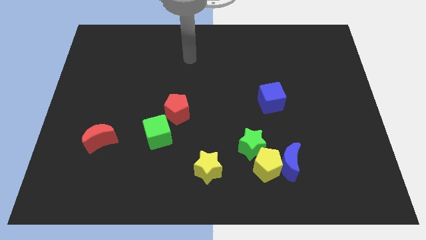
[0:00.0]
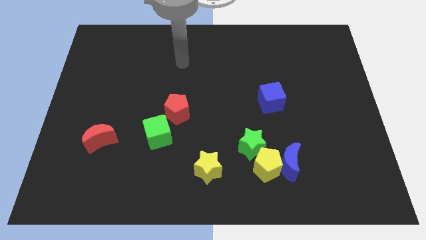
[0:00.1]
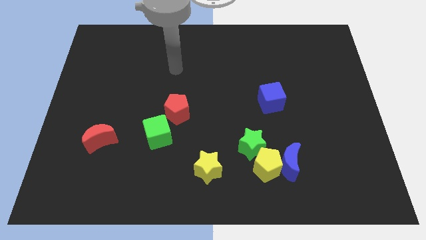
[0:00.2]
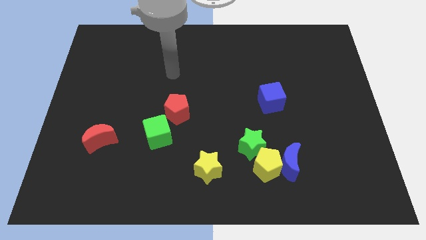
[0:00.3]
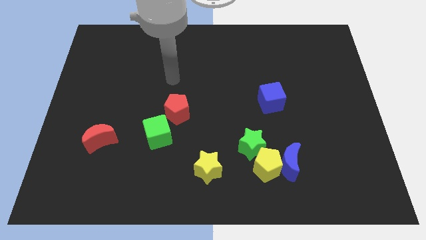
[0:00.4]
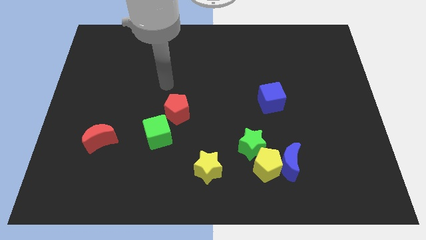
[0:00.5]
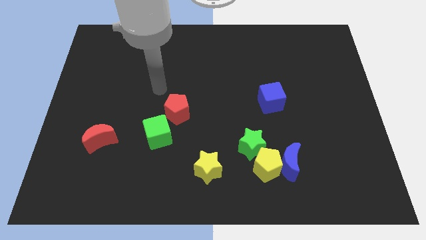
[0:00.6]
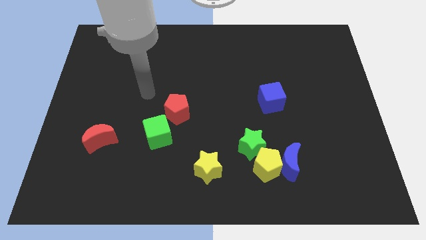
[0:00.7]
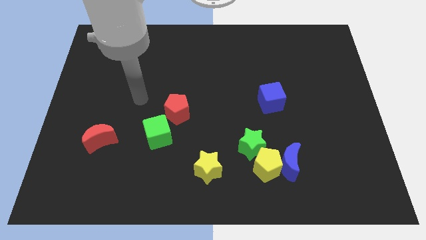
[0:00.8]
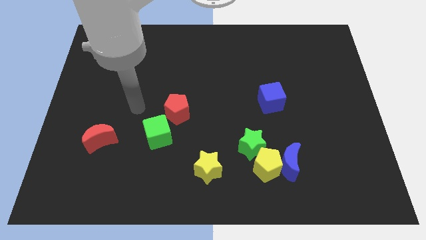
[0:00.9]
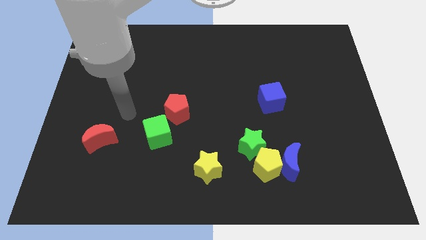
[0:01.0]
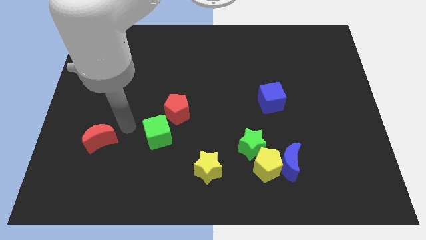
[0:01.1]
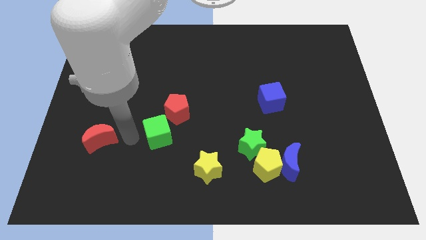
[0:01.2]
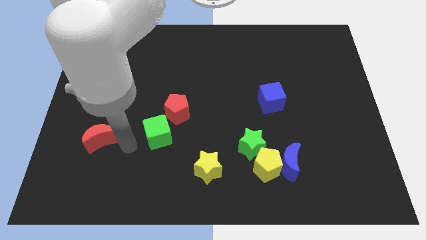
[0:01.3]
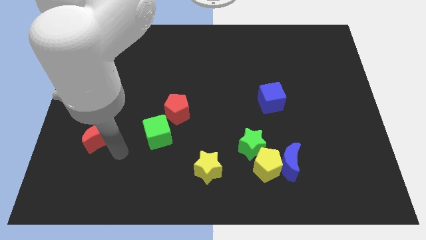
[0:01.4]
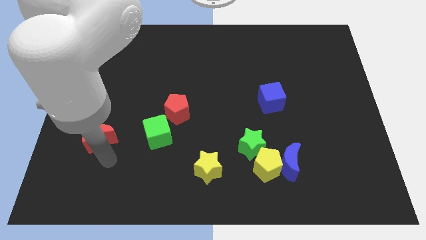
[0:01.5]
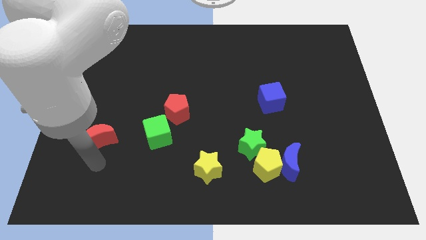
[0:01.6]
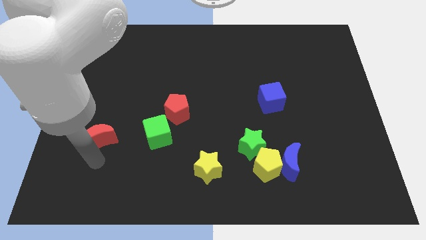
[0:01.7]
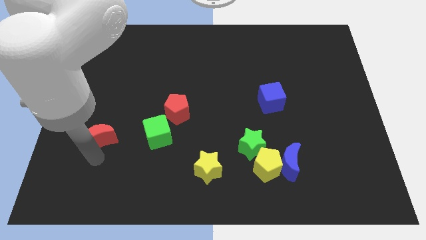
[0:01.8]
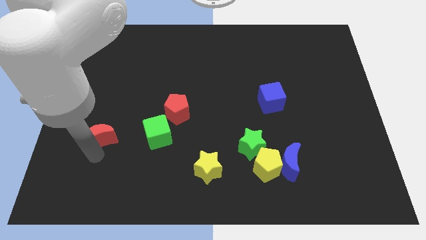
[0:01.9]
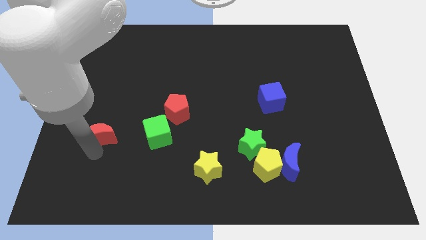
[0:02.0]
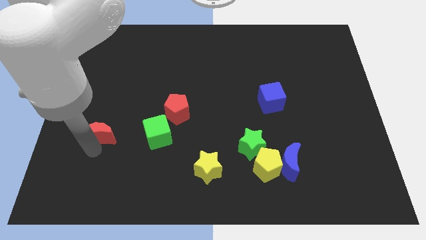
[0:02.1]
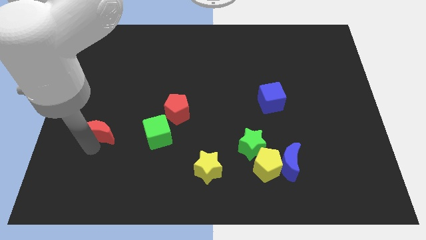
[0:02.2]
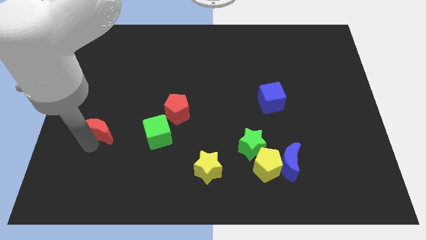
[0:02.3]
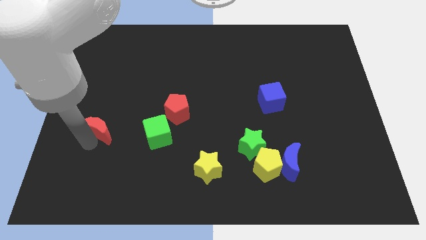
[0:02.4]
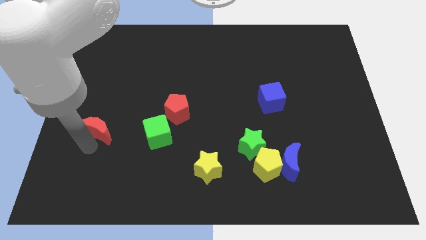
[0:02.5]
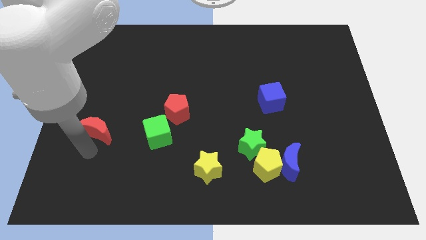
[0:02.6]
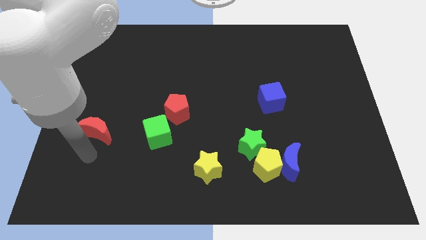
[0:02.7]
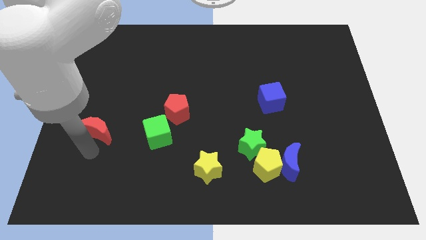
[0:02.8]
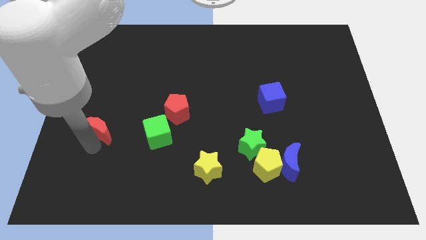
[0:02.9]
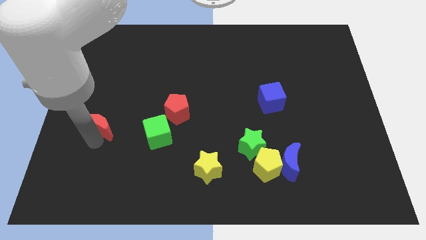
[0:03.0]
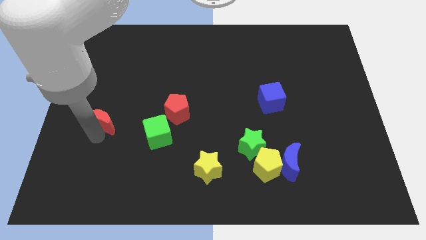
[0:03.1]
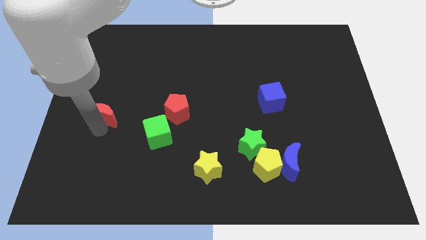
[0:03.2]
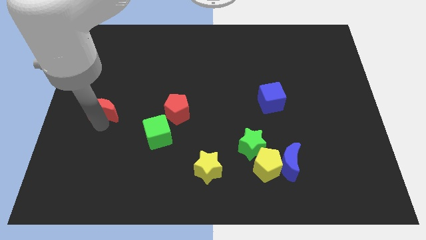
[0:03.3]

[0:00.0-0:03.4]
slide the red moon up a little

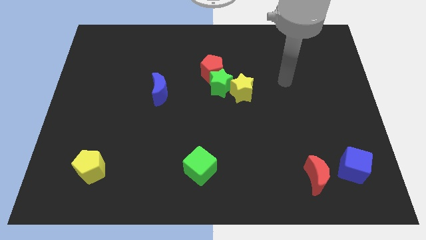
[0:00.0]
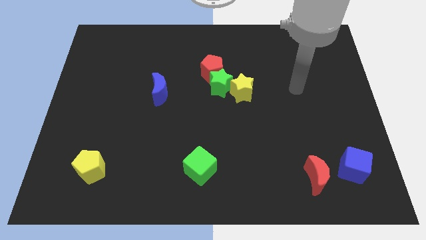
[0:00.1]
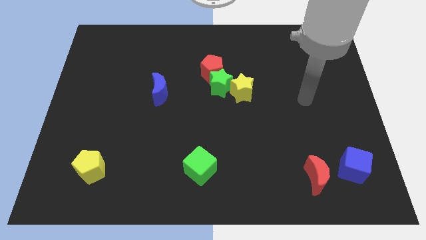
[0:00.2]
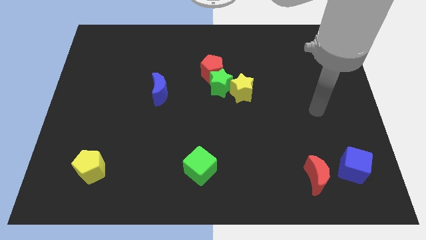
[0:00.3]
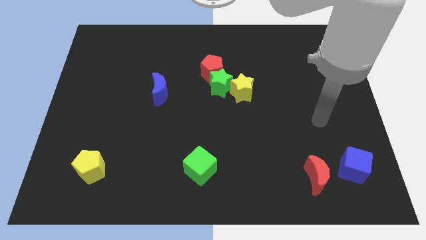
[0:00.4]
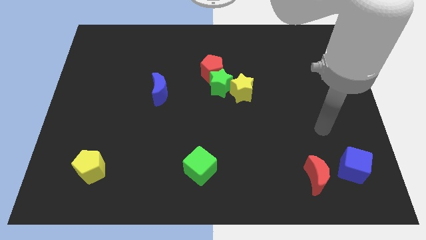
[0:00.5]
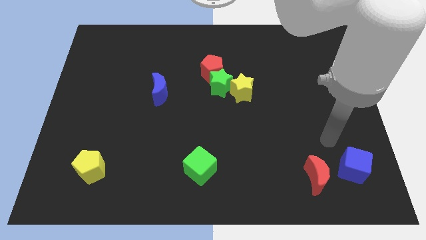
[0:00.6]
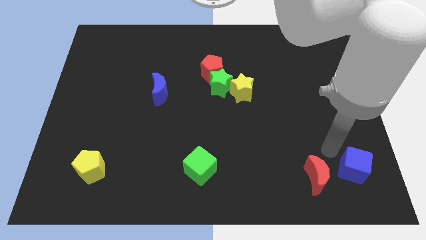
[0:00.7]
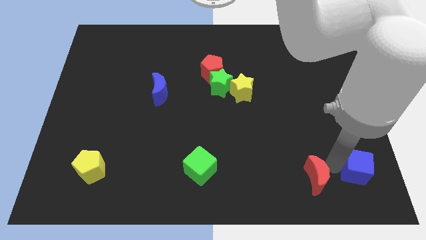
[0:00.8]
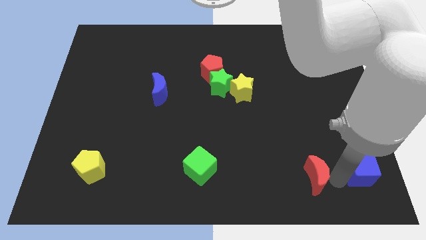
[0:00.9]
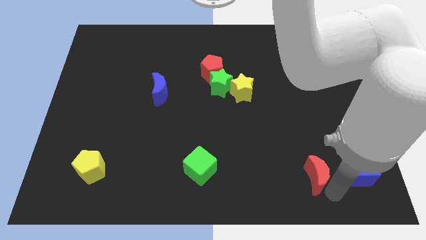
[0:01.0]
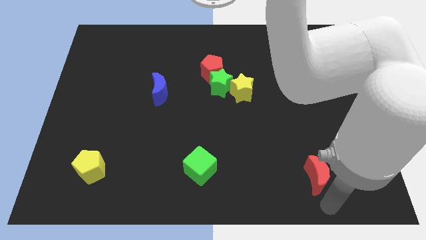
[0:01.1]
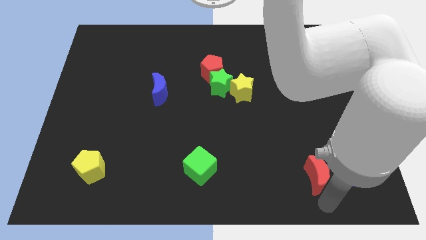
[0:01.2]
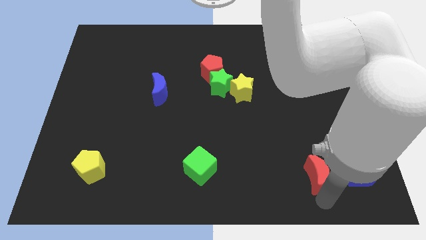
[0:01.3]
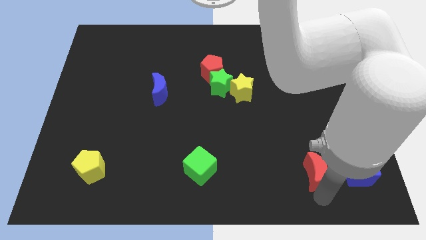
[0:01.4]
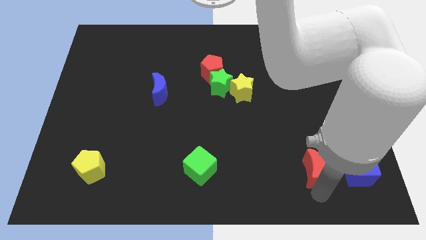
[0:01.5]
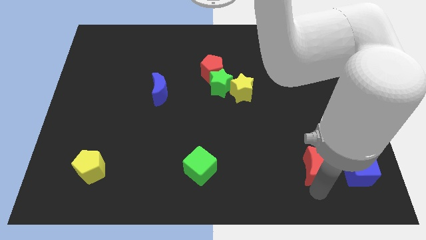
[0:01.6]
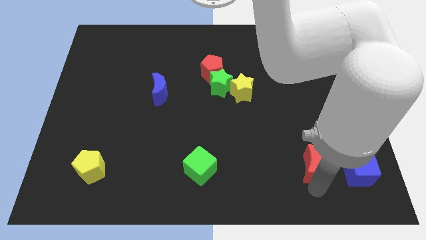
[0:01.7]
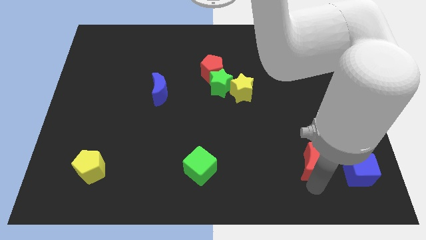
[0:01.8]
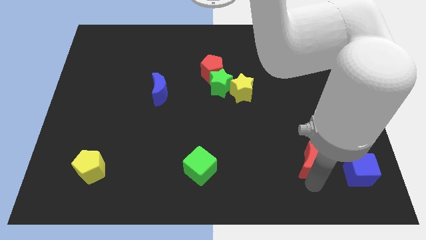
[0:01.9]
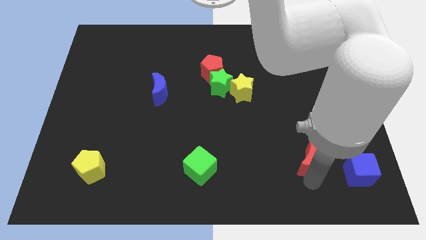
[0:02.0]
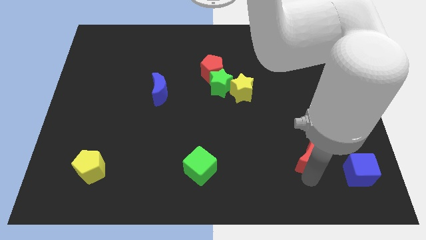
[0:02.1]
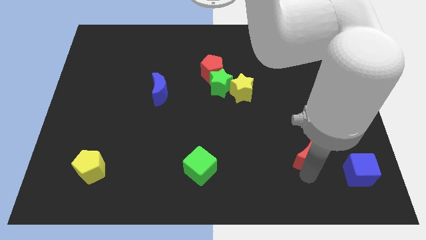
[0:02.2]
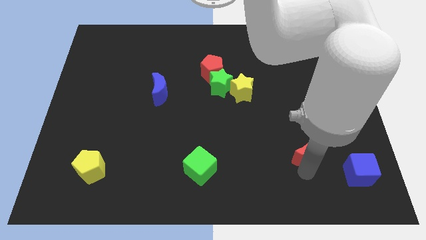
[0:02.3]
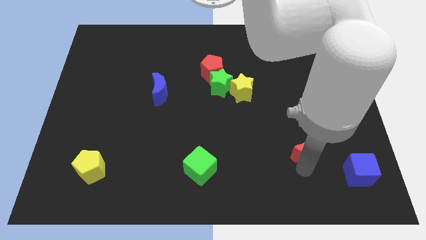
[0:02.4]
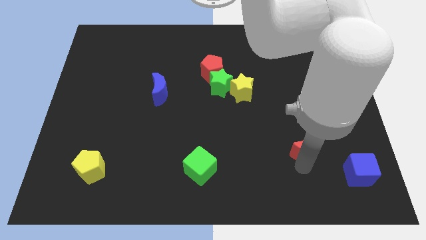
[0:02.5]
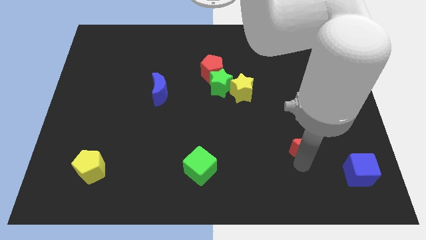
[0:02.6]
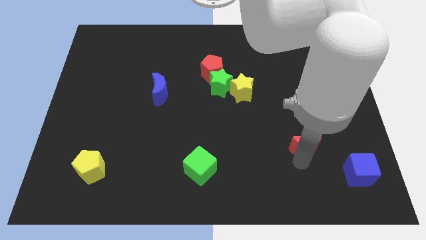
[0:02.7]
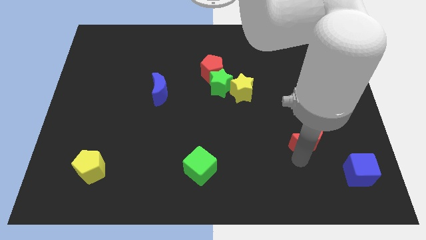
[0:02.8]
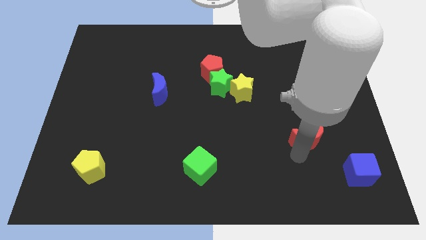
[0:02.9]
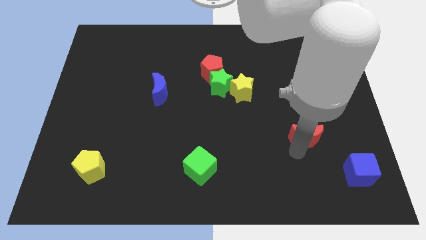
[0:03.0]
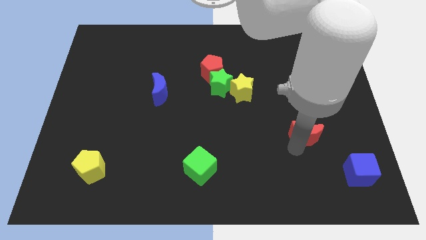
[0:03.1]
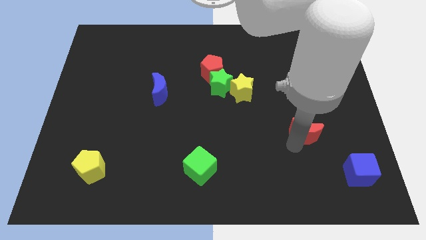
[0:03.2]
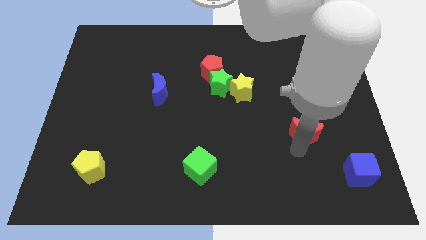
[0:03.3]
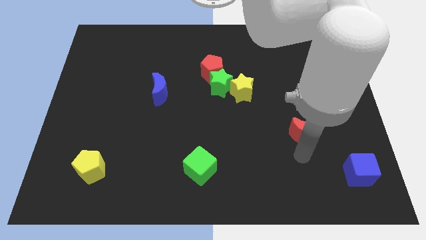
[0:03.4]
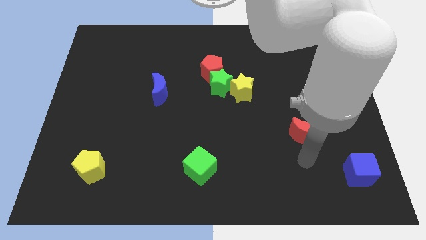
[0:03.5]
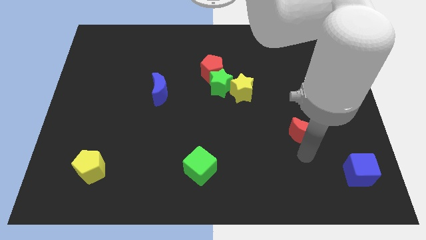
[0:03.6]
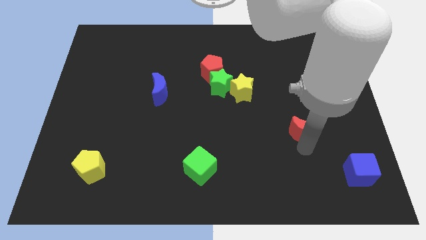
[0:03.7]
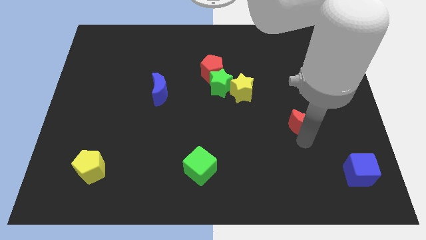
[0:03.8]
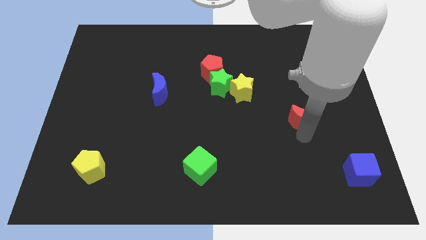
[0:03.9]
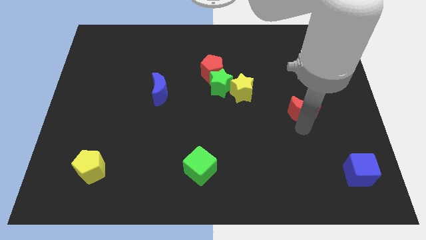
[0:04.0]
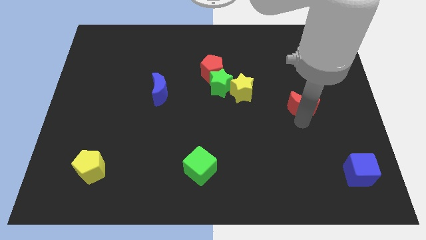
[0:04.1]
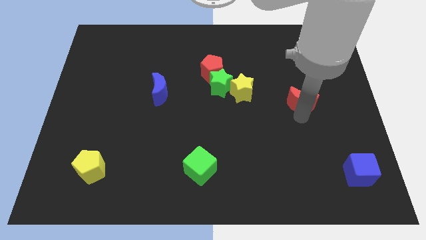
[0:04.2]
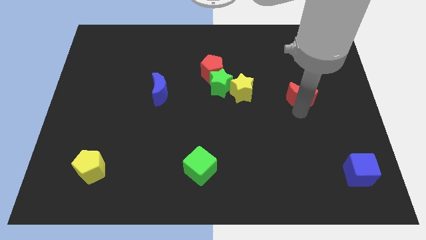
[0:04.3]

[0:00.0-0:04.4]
slide the red moon upwards

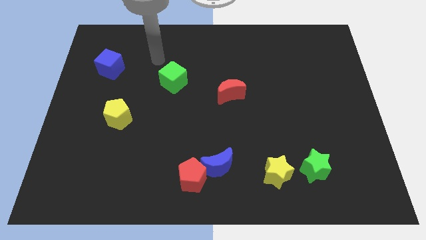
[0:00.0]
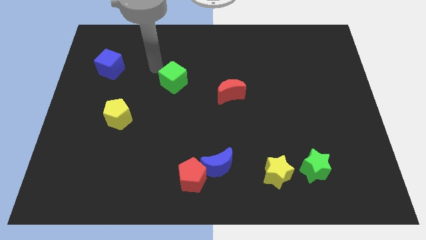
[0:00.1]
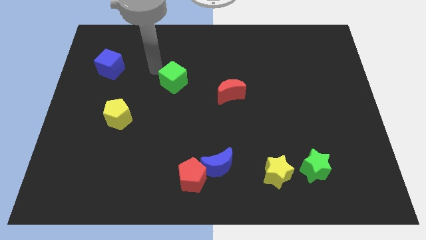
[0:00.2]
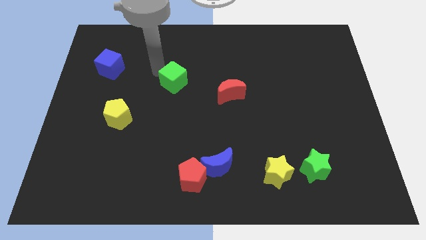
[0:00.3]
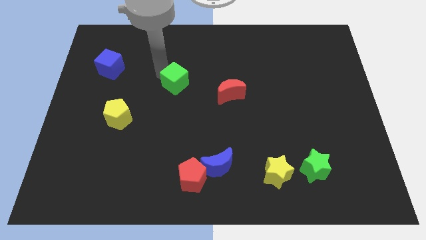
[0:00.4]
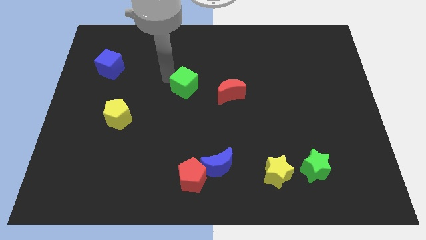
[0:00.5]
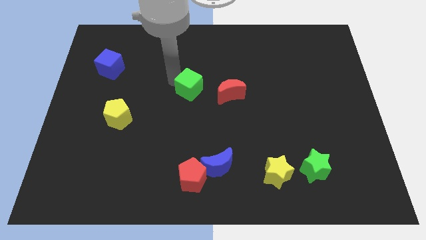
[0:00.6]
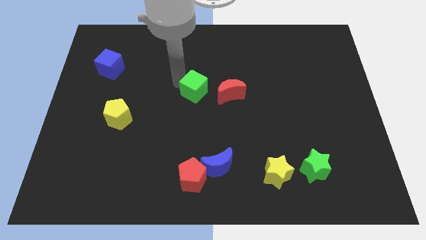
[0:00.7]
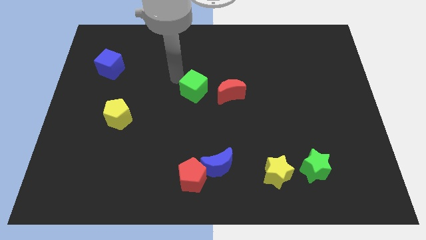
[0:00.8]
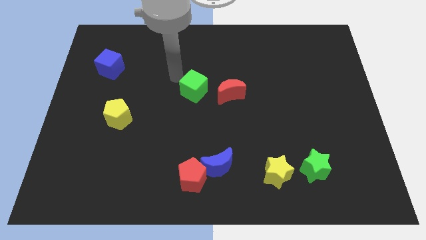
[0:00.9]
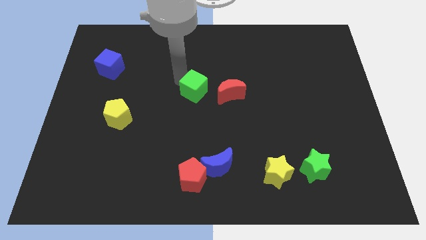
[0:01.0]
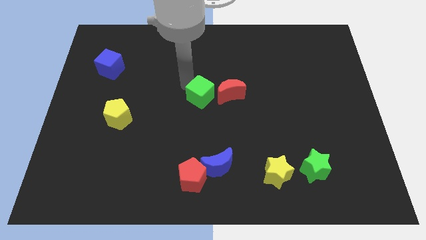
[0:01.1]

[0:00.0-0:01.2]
slide the green cube a bit down and right
